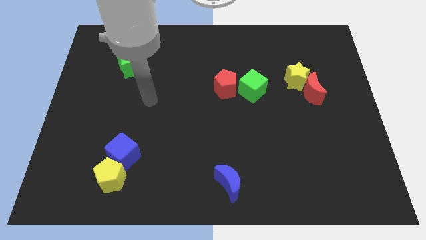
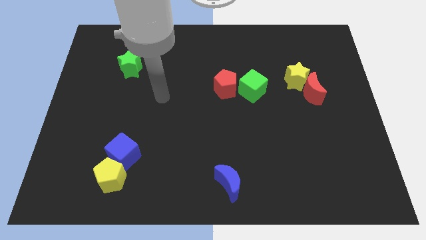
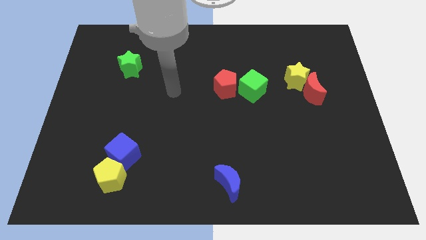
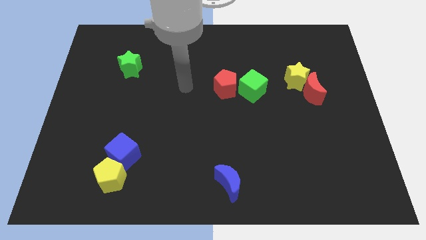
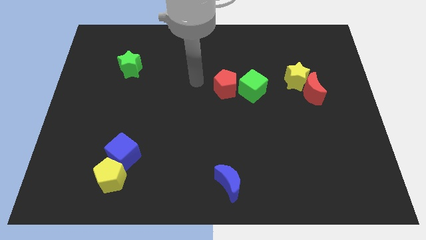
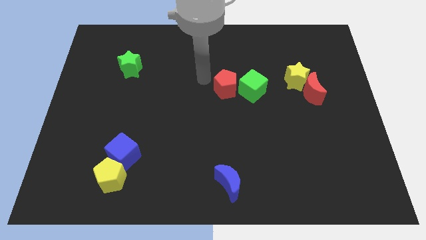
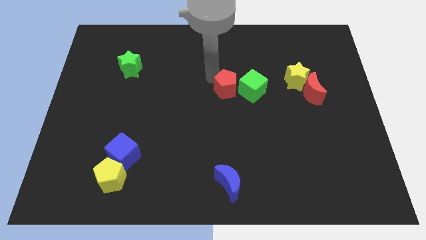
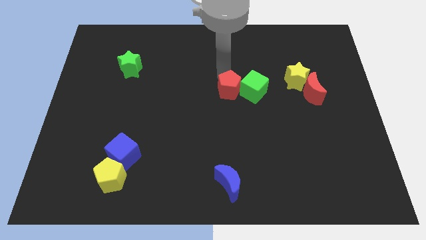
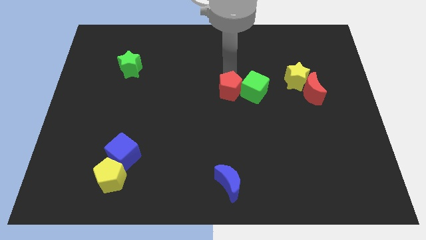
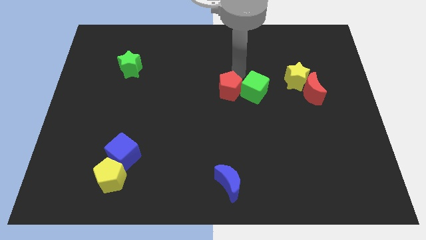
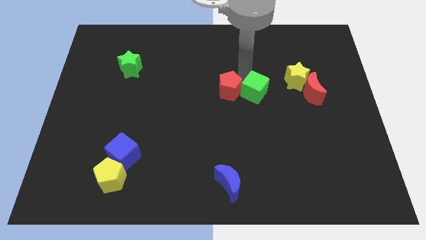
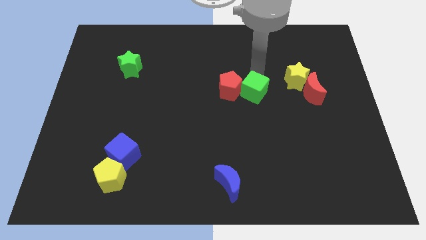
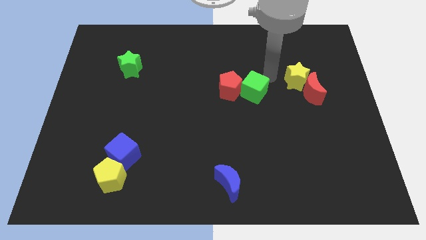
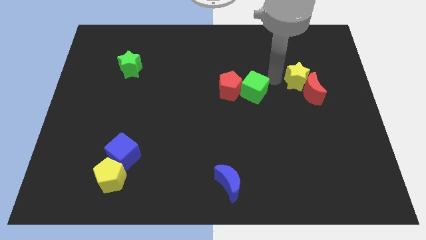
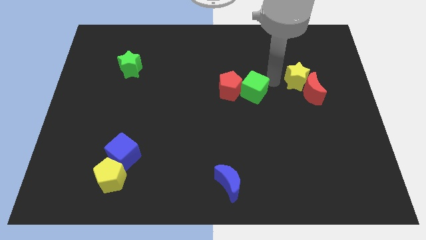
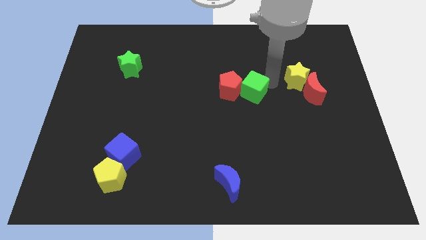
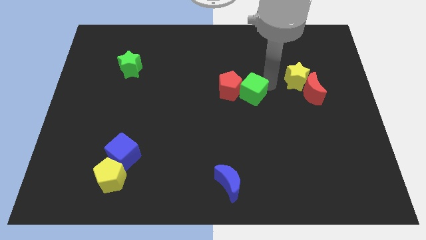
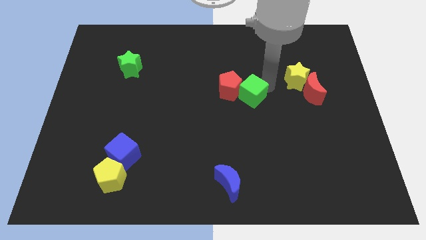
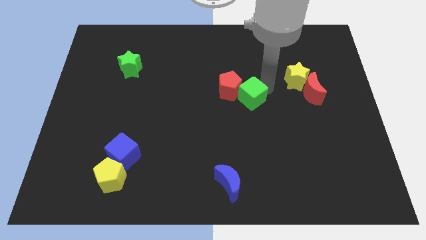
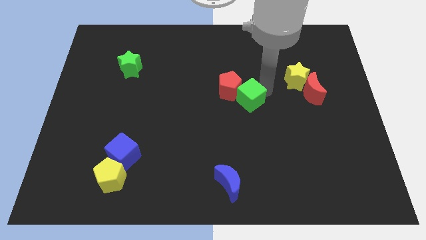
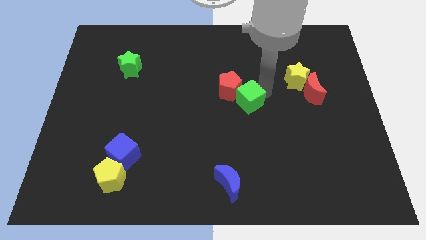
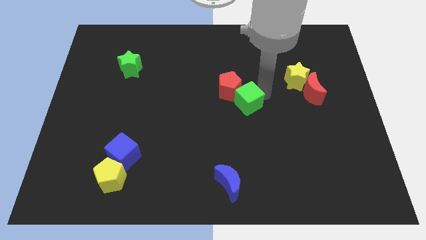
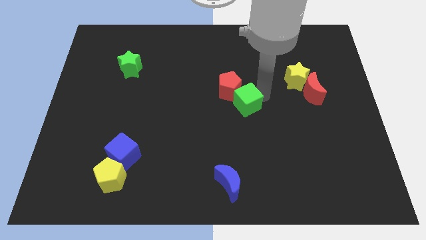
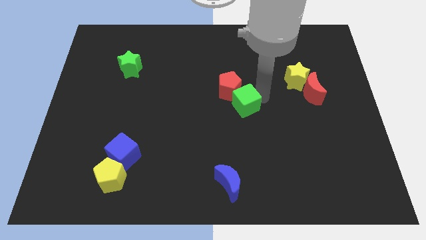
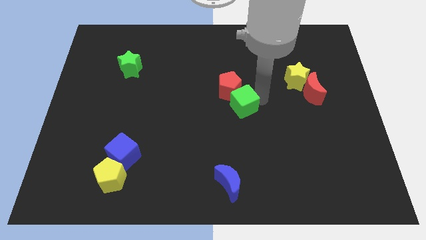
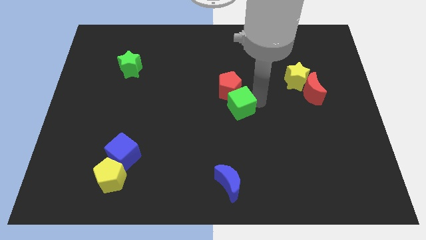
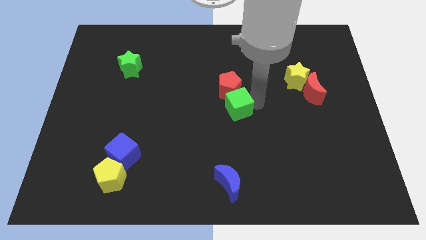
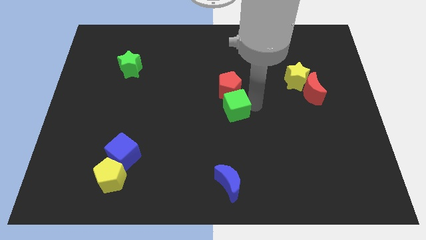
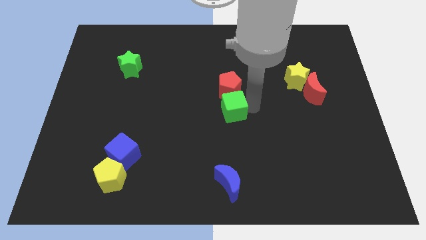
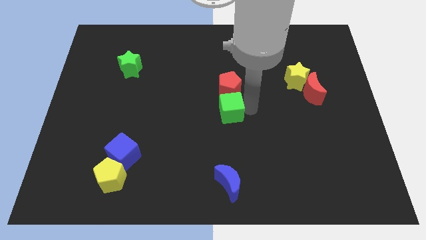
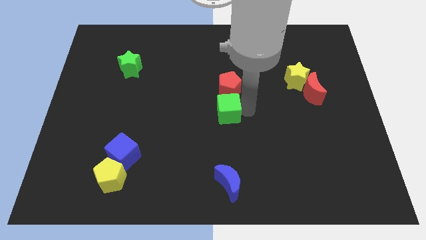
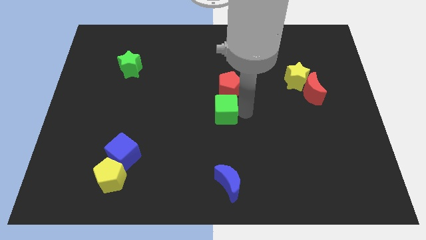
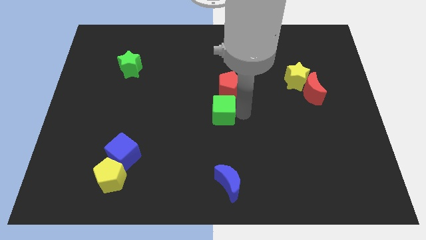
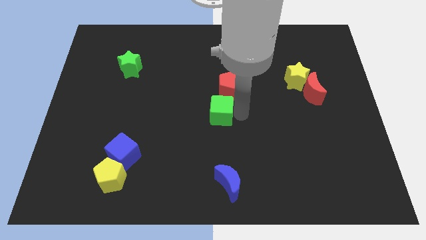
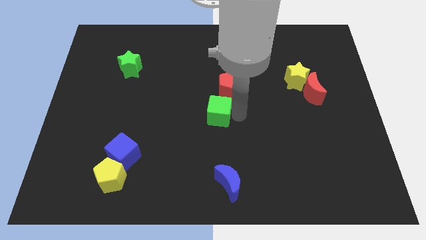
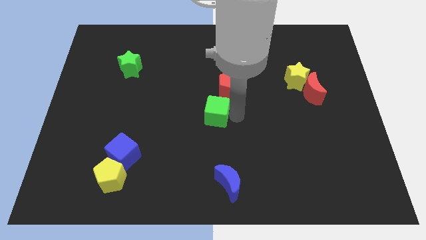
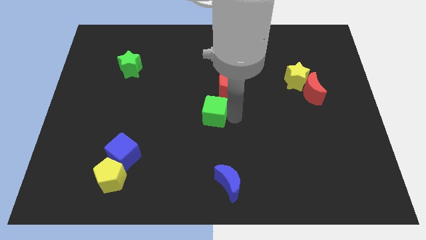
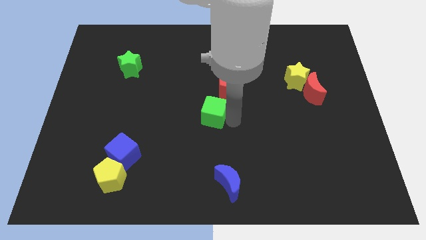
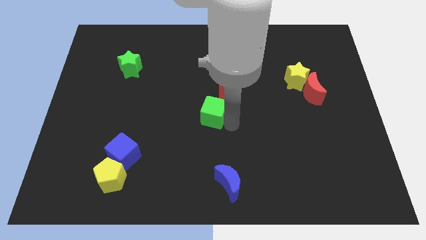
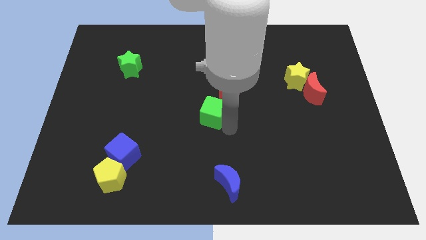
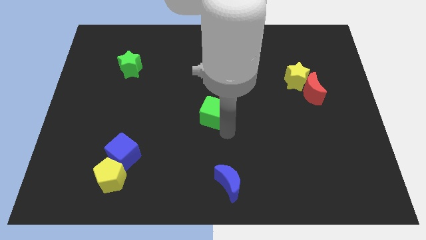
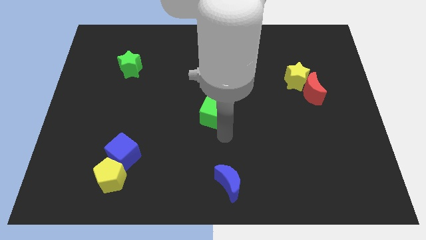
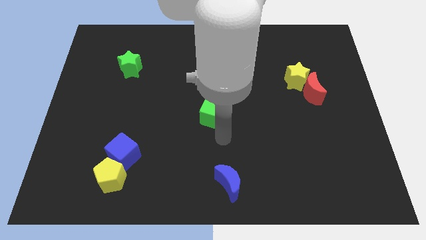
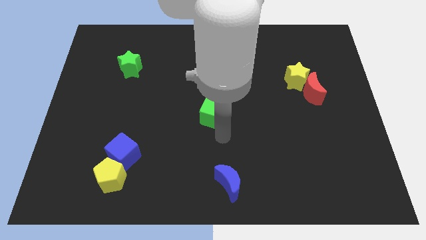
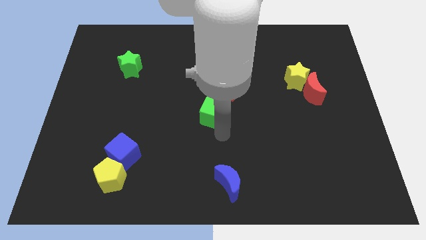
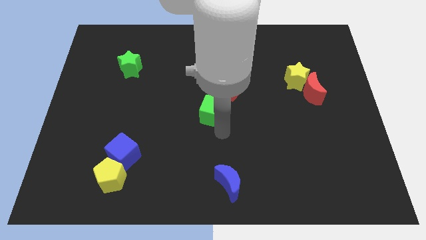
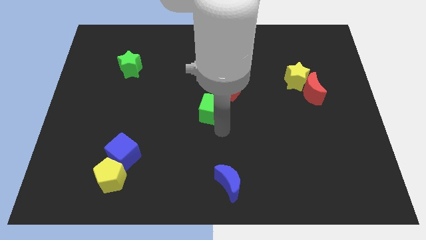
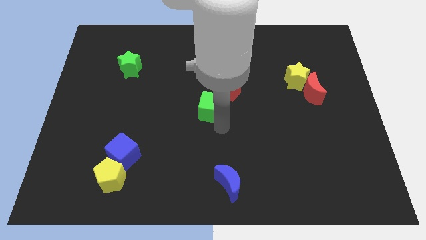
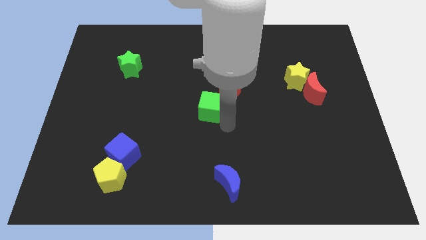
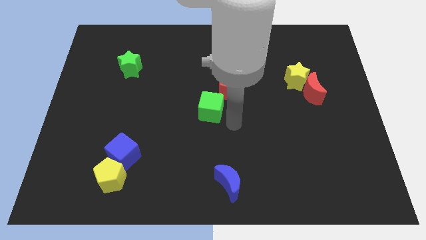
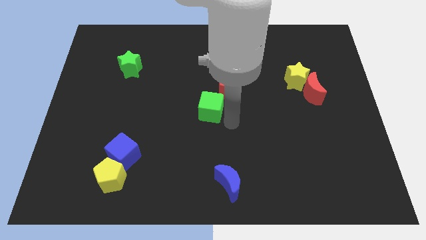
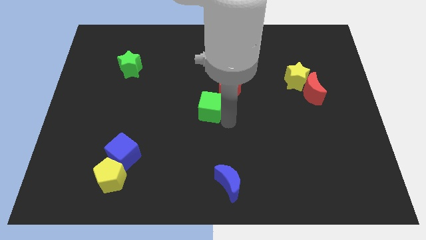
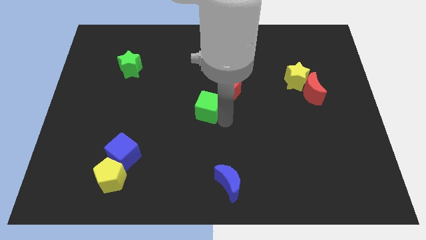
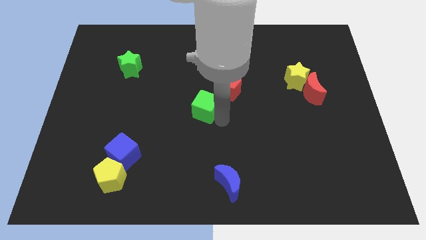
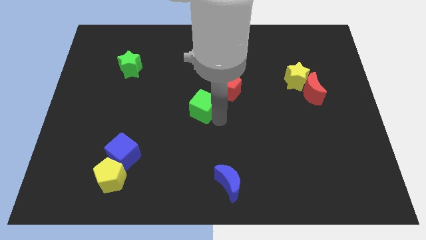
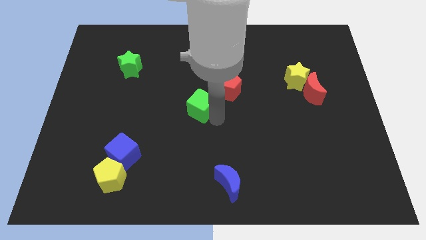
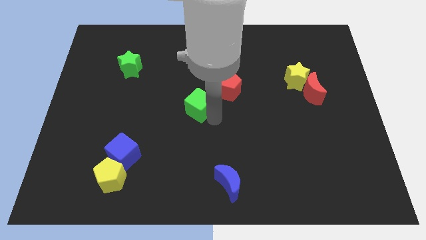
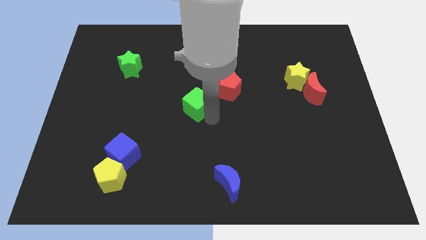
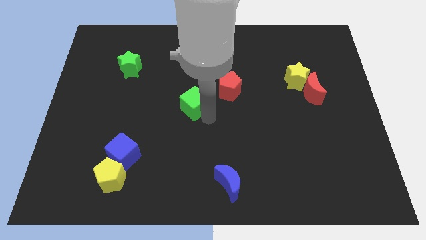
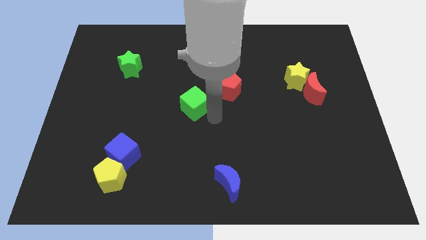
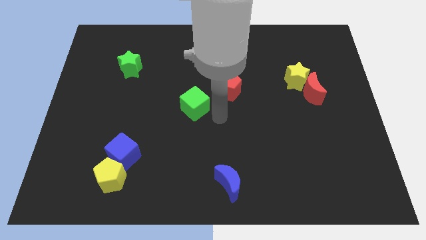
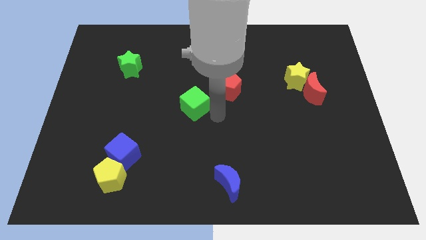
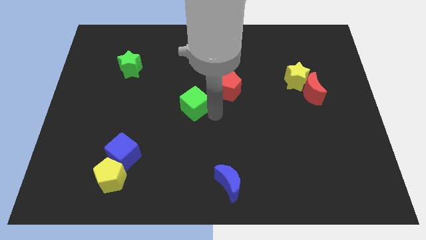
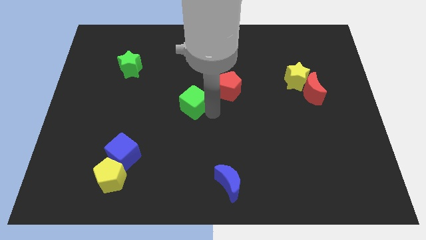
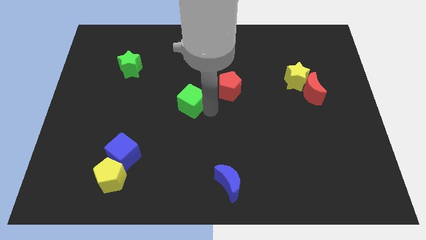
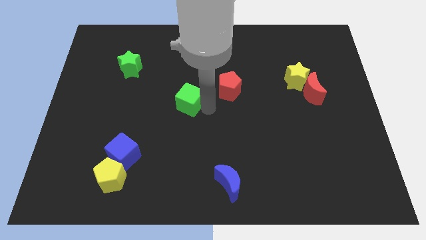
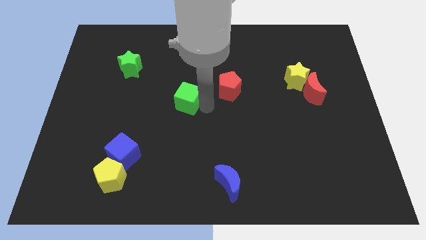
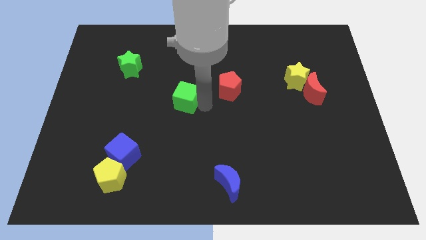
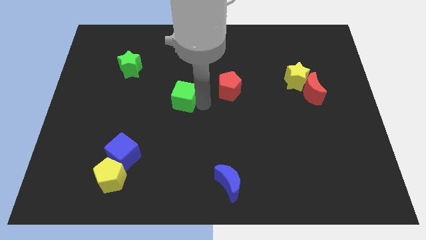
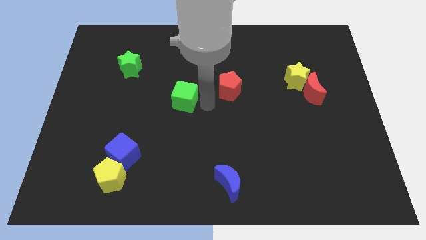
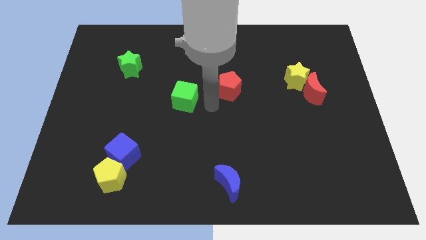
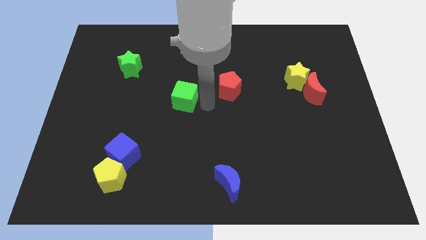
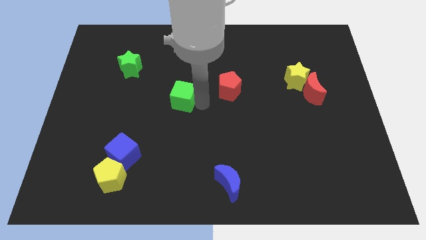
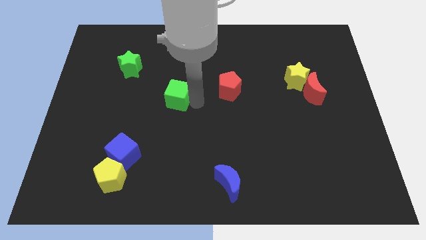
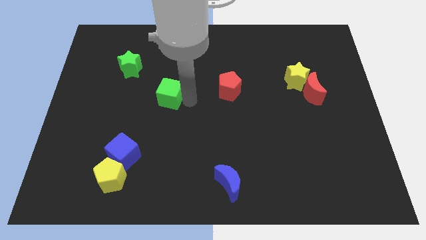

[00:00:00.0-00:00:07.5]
move the green cube to the left

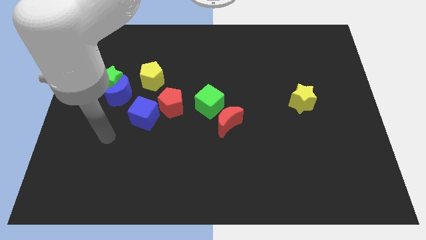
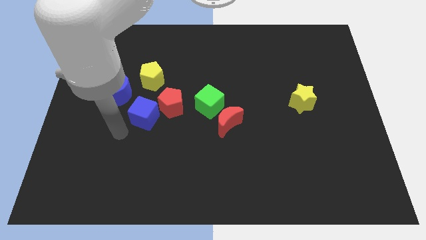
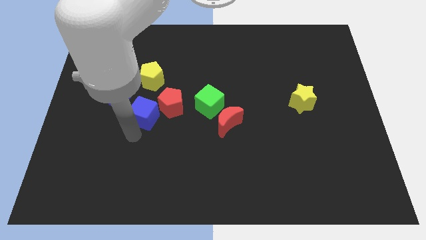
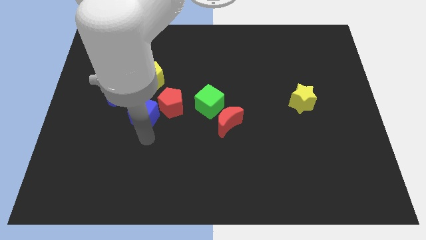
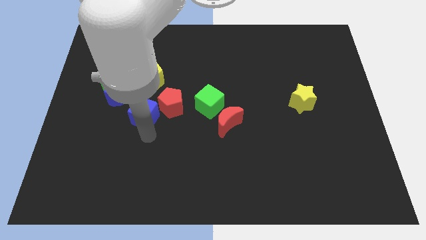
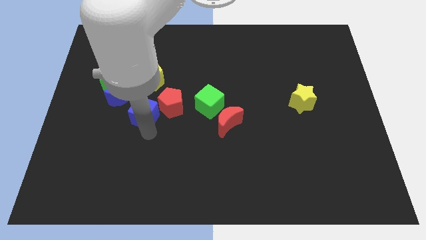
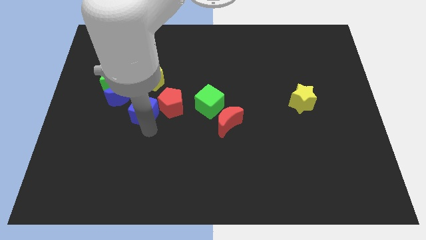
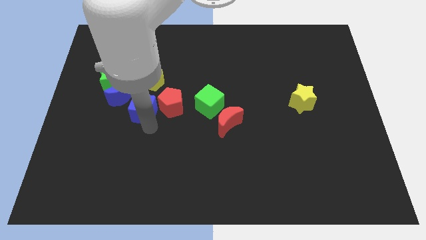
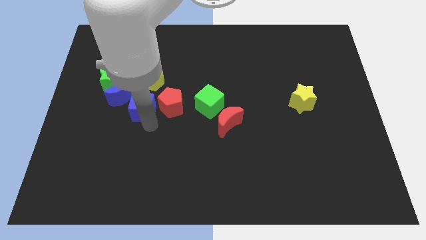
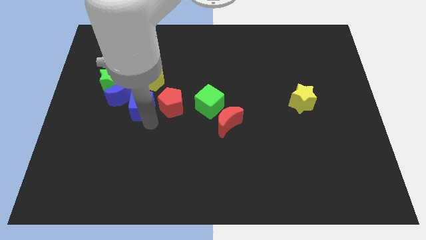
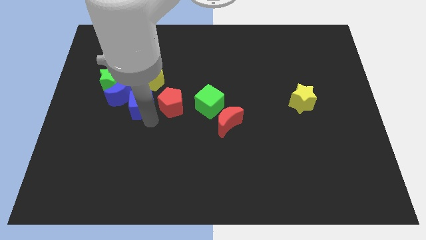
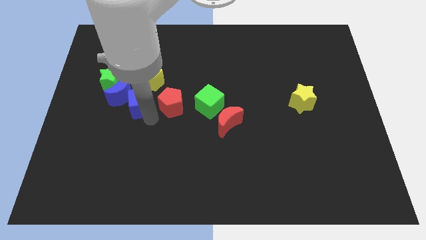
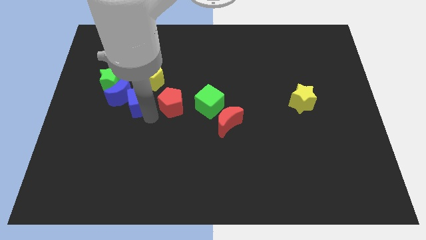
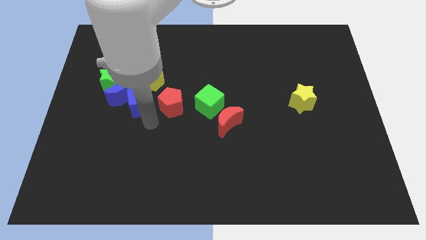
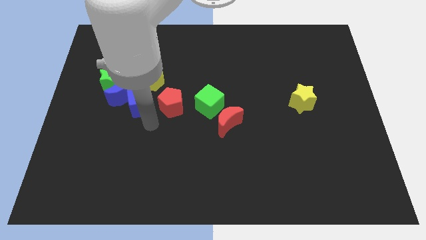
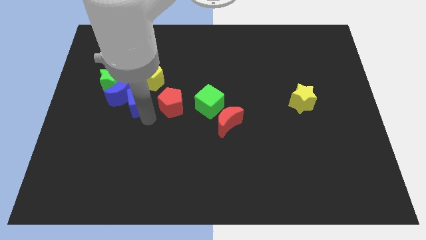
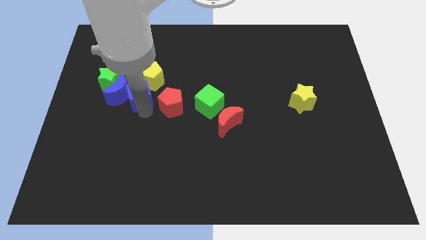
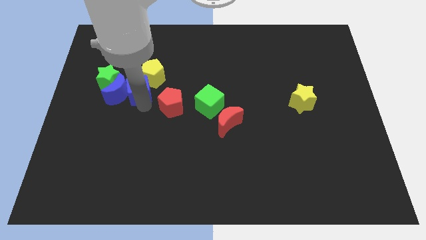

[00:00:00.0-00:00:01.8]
push the blue cube upwards a little bit
